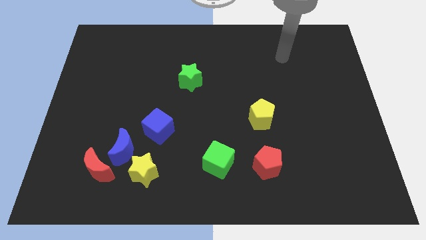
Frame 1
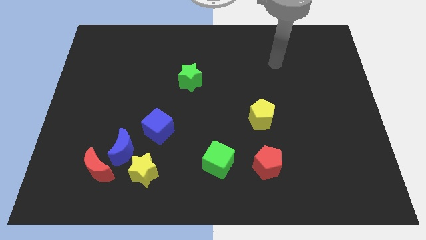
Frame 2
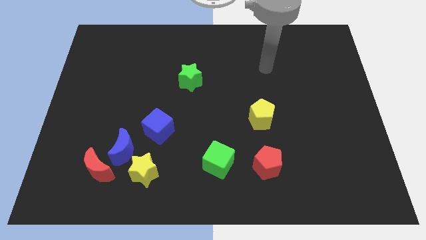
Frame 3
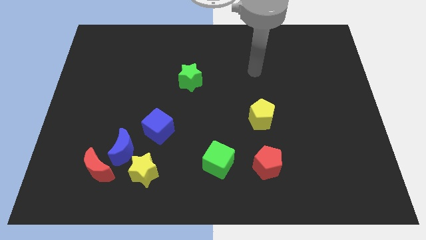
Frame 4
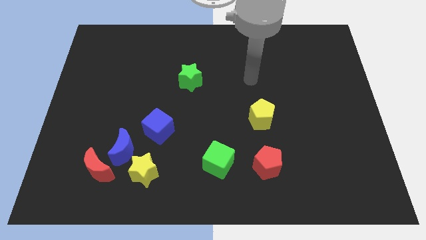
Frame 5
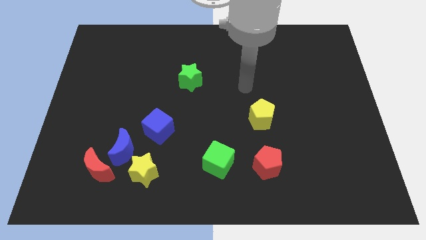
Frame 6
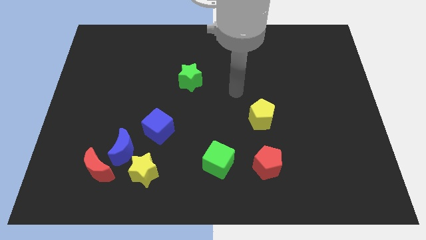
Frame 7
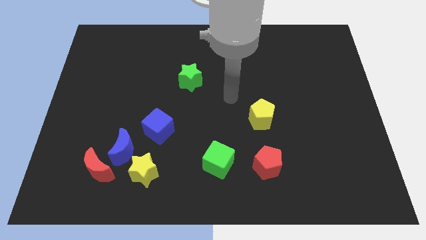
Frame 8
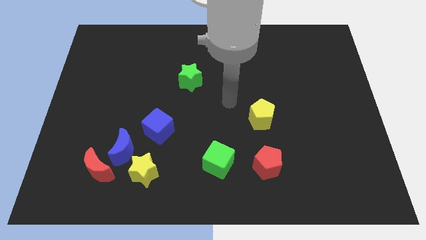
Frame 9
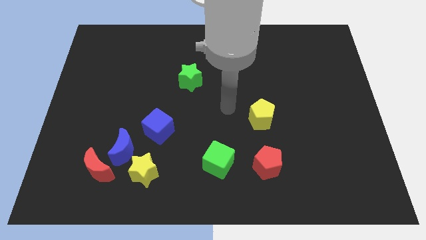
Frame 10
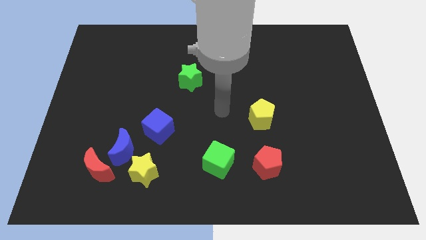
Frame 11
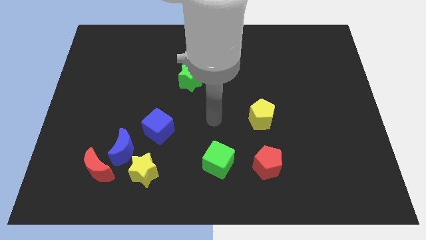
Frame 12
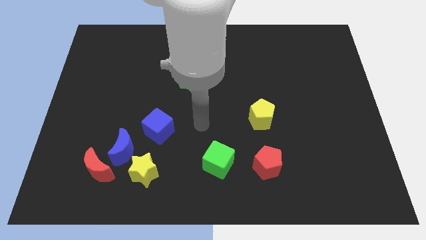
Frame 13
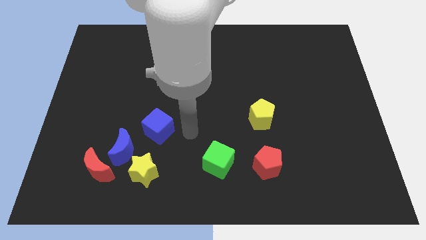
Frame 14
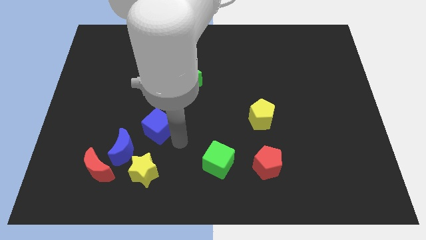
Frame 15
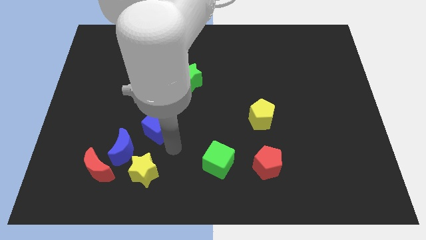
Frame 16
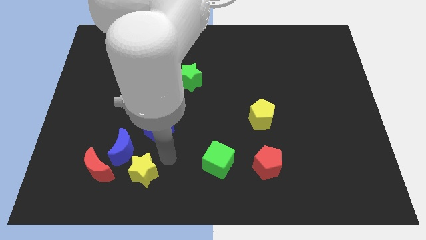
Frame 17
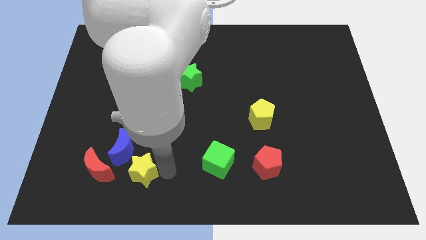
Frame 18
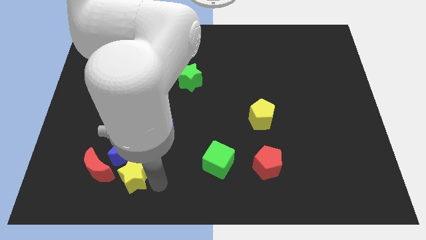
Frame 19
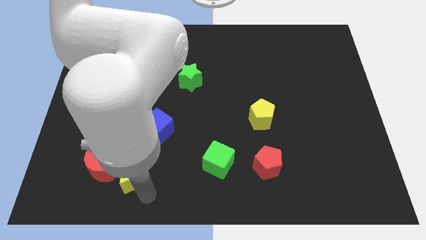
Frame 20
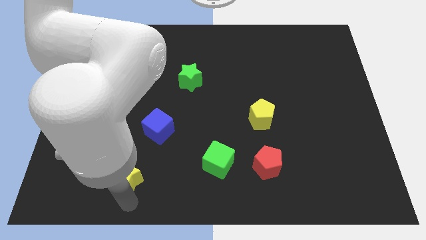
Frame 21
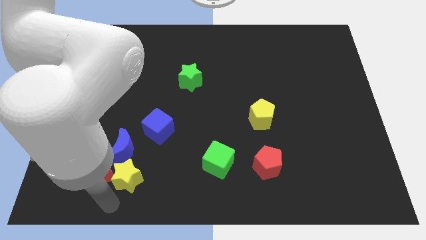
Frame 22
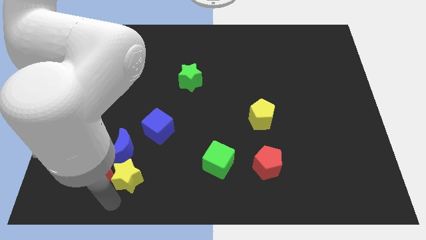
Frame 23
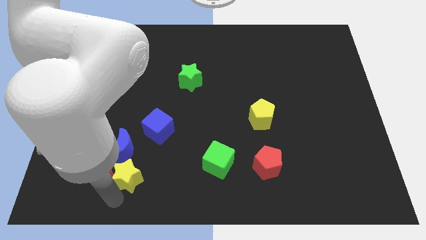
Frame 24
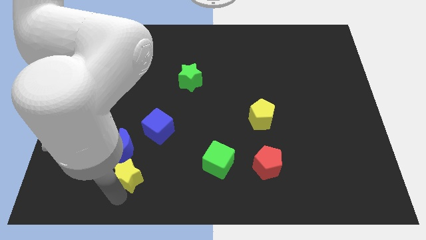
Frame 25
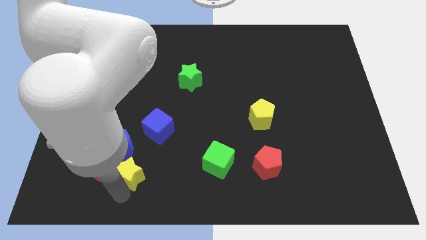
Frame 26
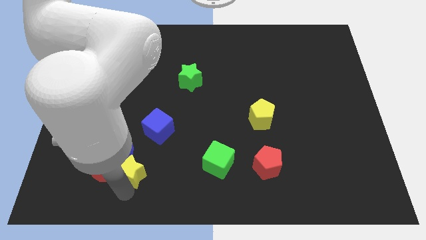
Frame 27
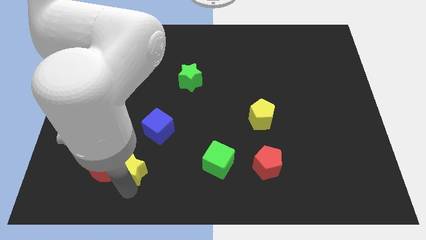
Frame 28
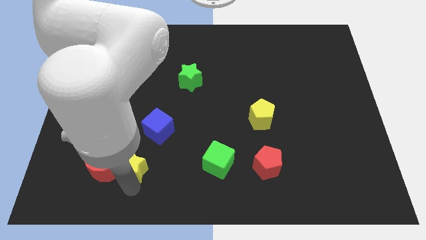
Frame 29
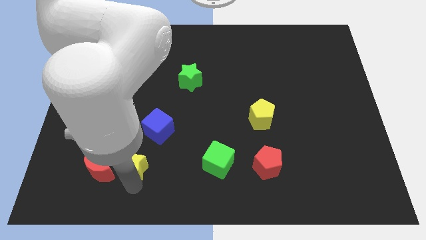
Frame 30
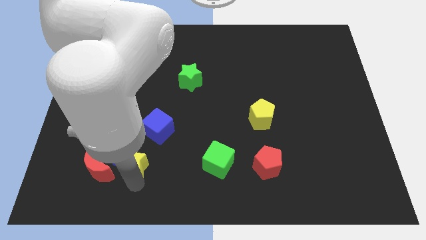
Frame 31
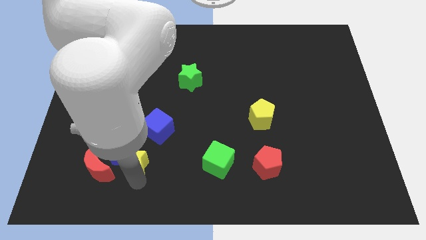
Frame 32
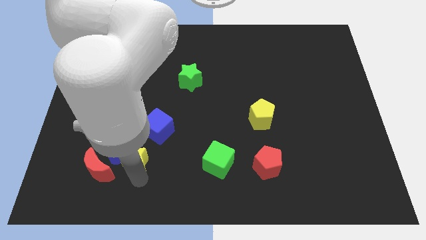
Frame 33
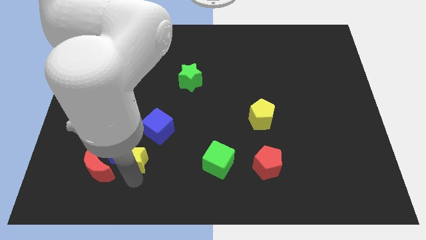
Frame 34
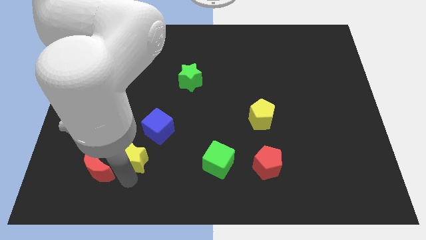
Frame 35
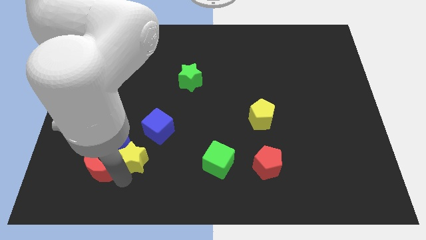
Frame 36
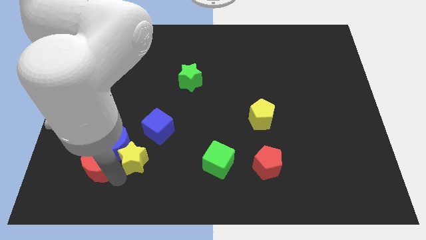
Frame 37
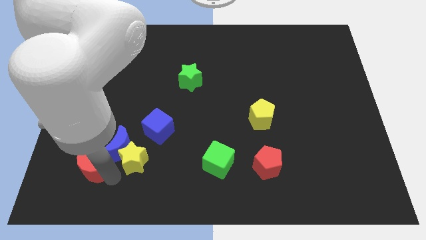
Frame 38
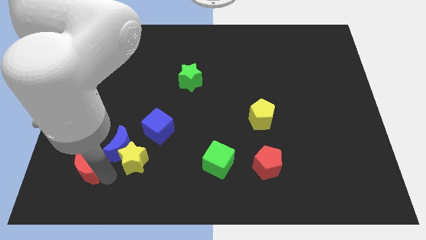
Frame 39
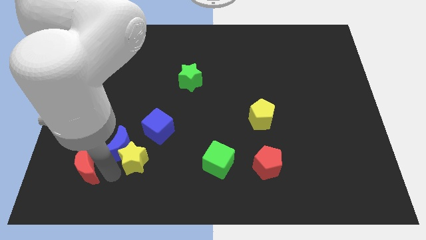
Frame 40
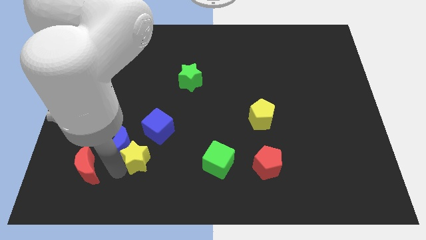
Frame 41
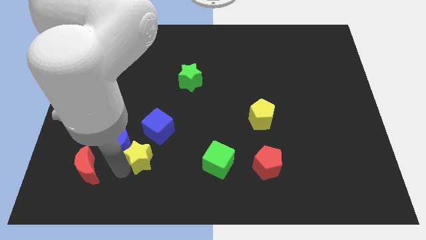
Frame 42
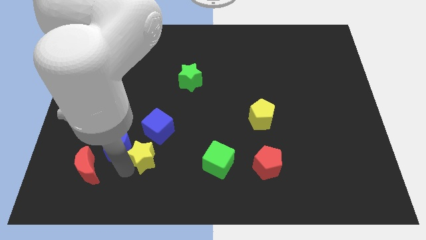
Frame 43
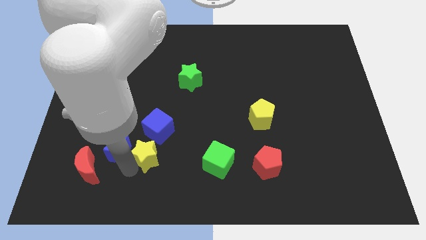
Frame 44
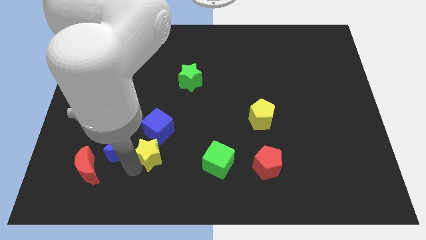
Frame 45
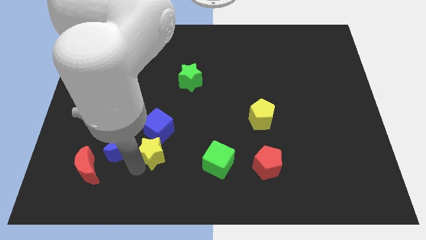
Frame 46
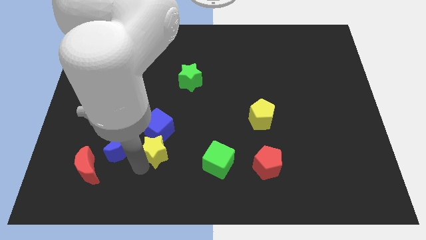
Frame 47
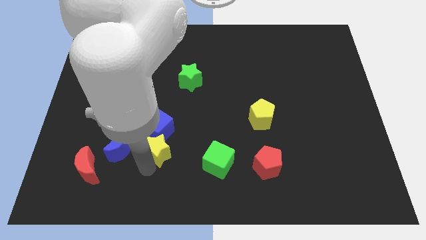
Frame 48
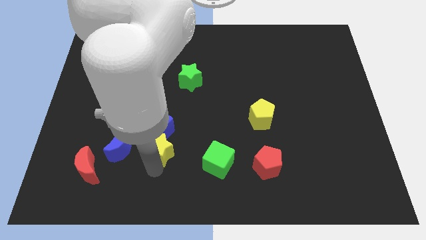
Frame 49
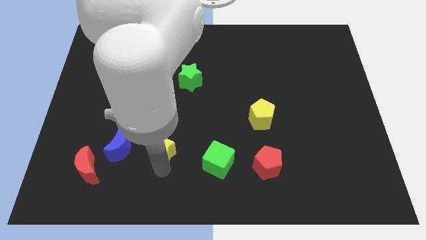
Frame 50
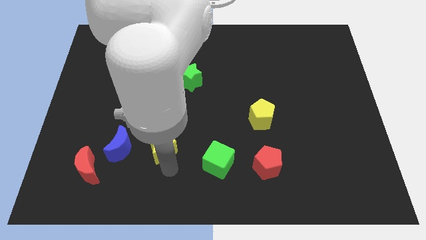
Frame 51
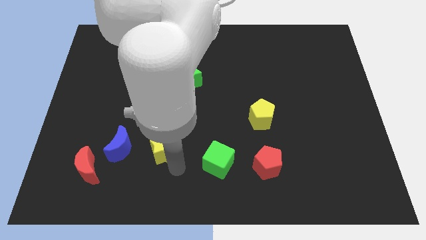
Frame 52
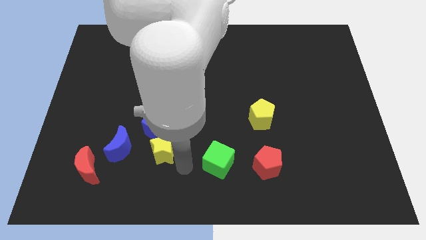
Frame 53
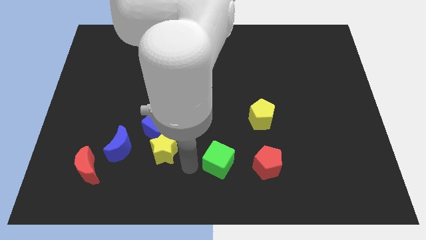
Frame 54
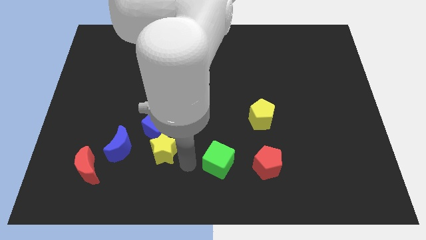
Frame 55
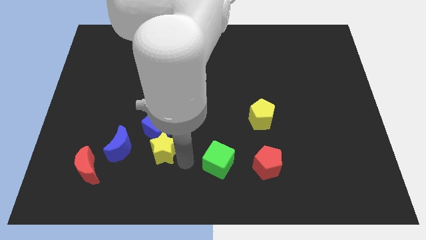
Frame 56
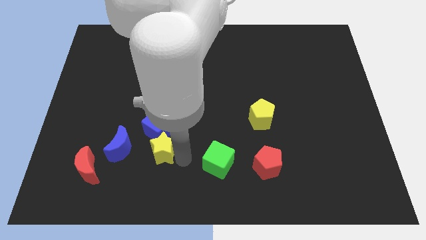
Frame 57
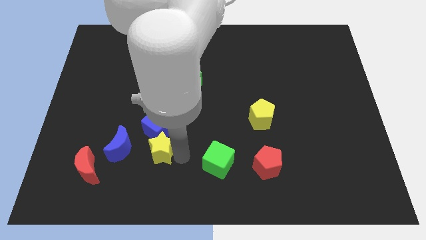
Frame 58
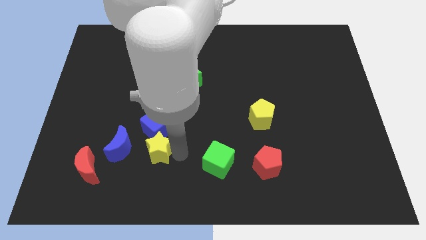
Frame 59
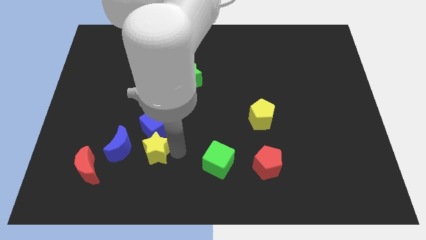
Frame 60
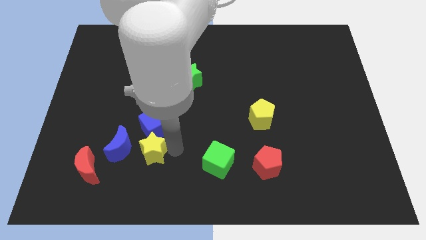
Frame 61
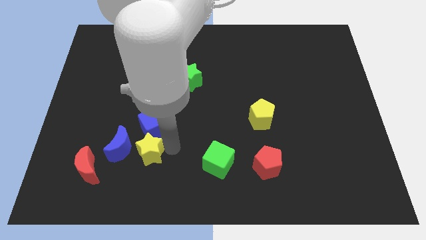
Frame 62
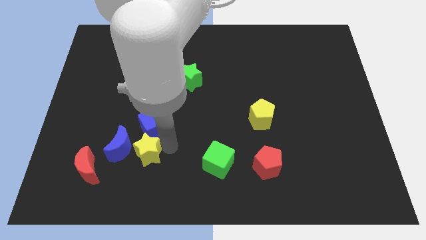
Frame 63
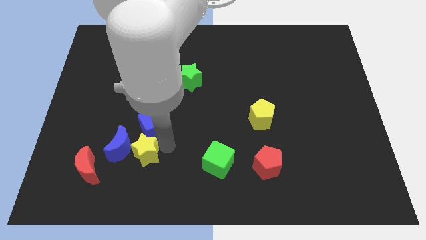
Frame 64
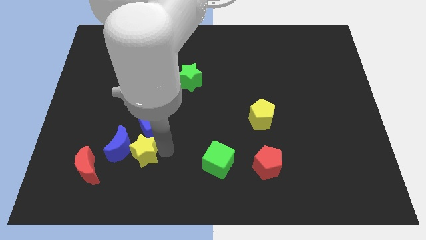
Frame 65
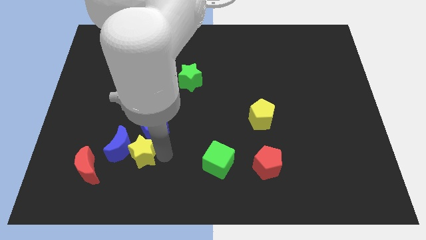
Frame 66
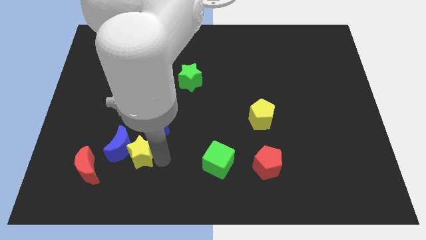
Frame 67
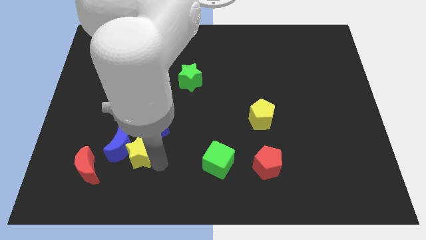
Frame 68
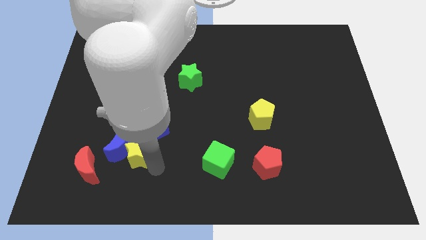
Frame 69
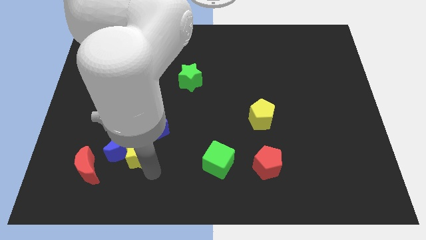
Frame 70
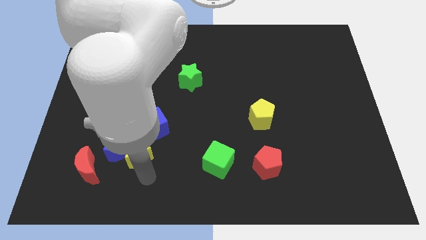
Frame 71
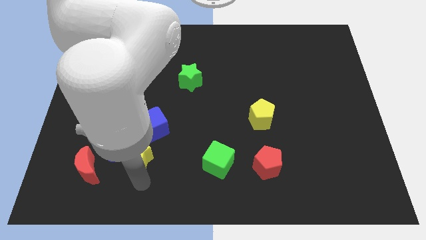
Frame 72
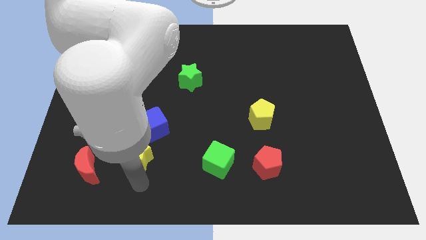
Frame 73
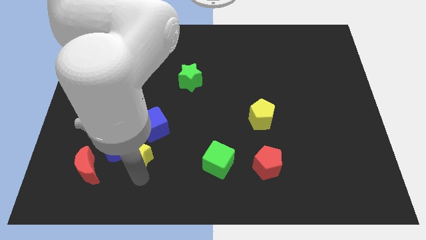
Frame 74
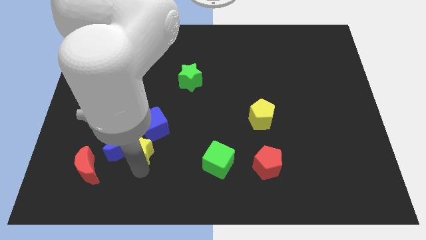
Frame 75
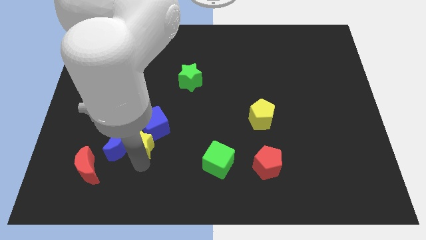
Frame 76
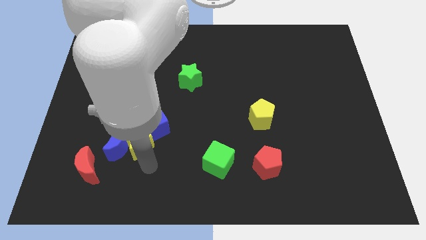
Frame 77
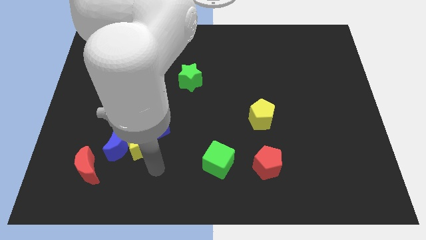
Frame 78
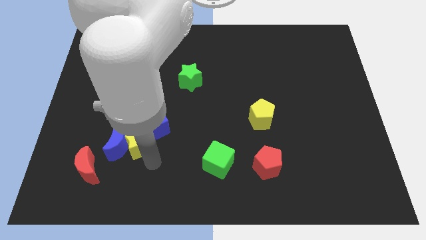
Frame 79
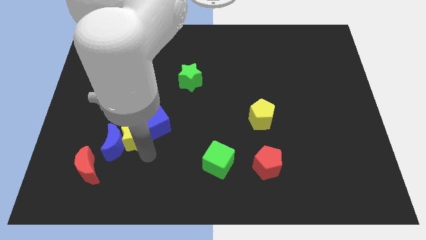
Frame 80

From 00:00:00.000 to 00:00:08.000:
slide the yellow star slightly diagonally upwards and left
